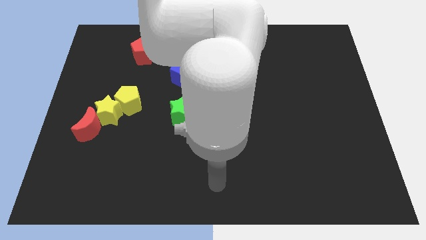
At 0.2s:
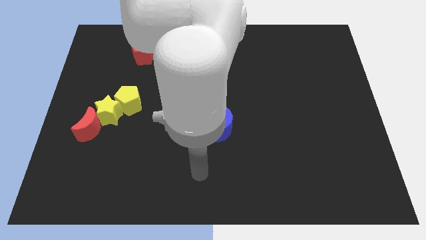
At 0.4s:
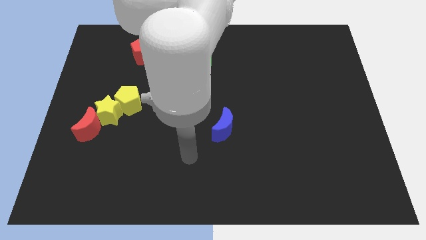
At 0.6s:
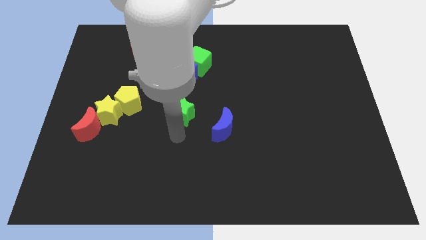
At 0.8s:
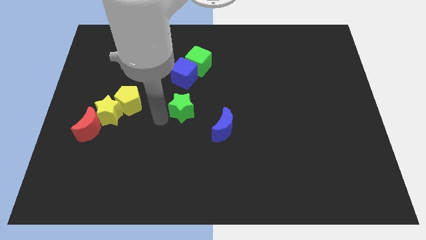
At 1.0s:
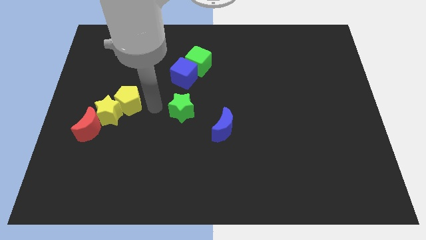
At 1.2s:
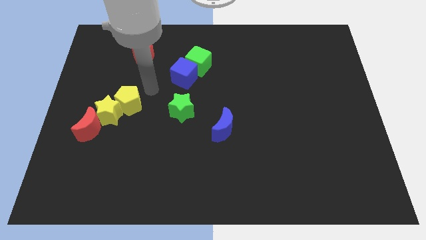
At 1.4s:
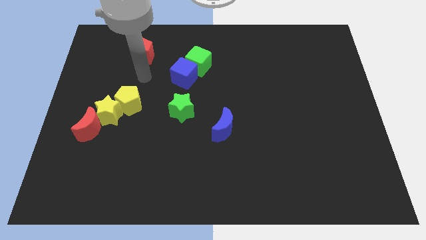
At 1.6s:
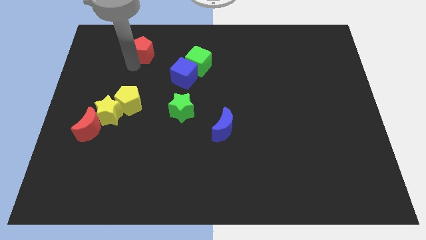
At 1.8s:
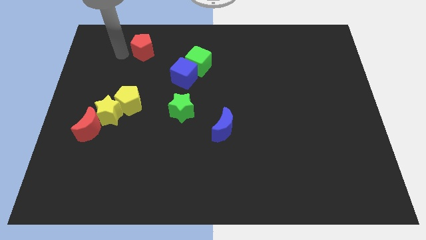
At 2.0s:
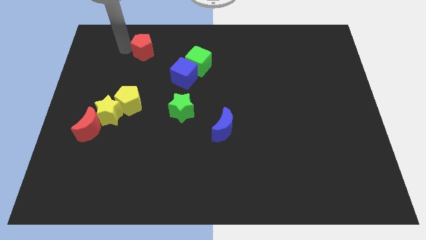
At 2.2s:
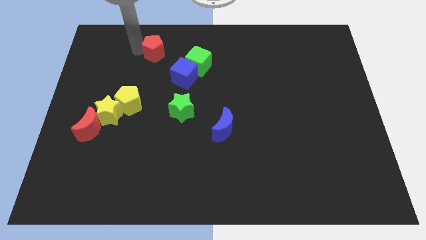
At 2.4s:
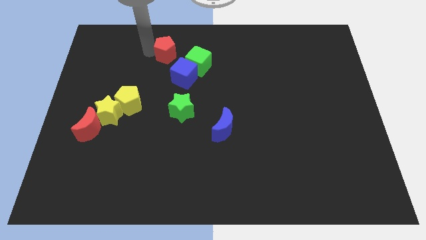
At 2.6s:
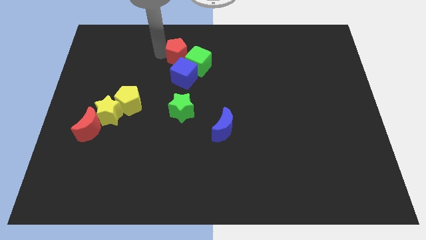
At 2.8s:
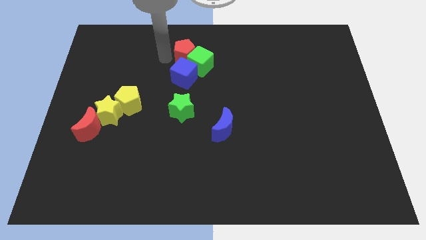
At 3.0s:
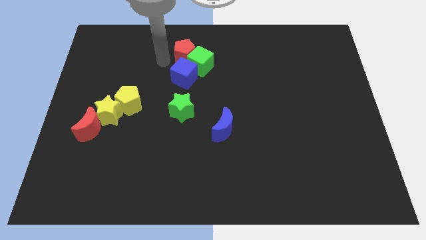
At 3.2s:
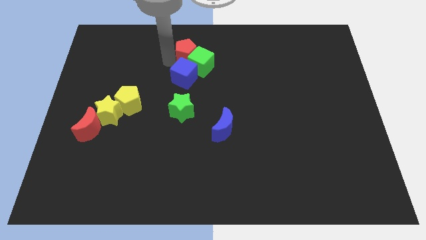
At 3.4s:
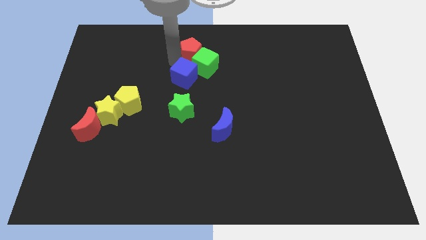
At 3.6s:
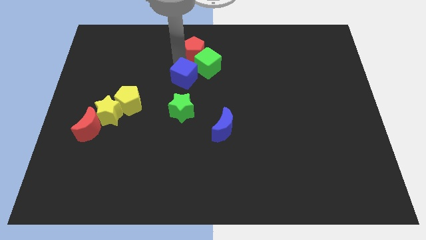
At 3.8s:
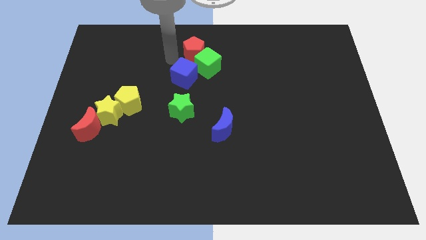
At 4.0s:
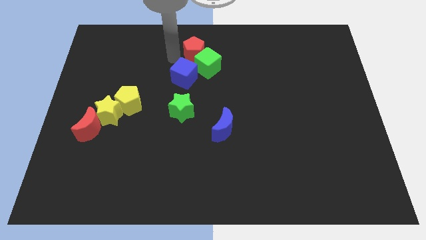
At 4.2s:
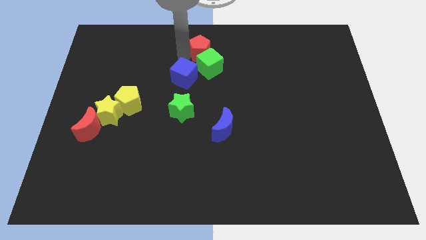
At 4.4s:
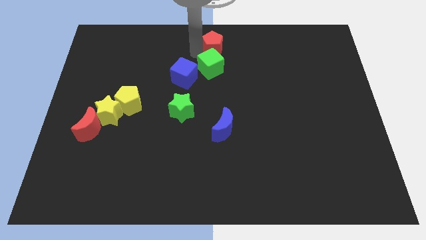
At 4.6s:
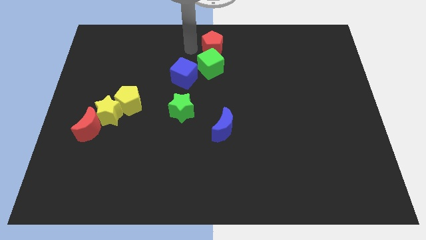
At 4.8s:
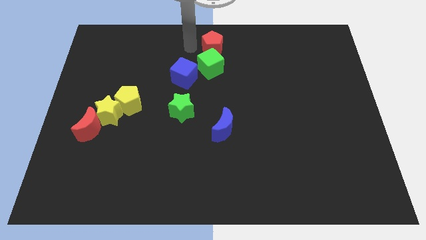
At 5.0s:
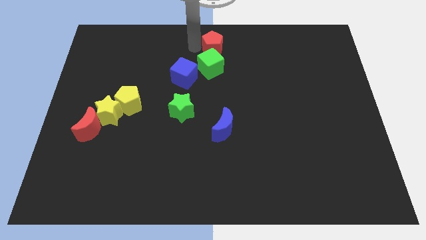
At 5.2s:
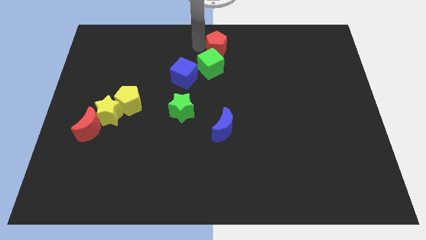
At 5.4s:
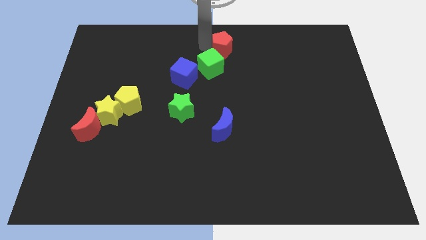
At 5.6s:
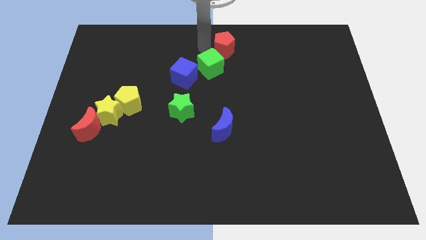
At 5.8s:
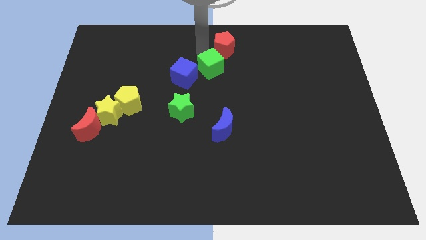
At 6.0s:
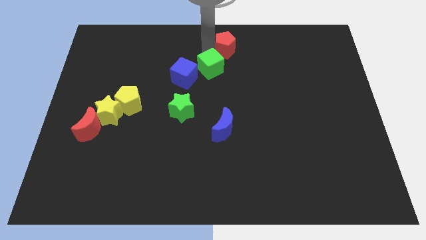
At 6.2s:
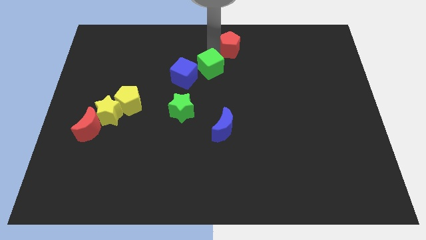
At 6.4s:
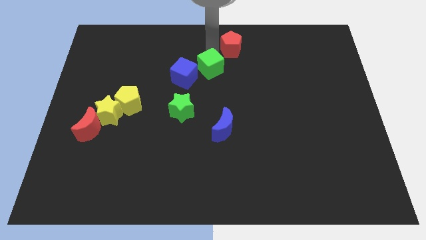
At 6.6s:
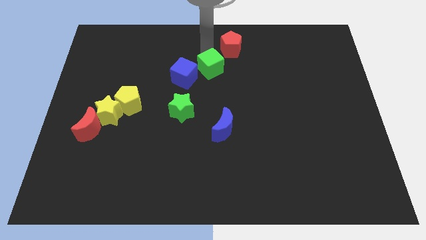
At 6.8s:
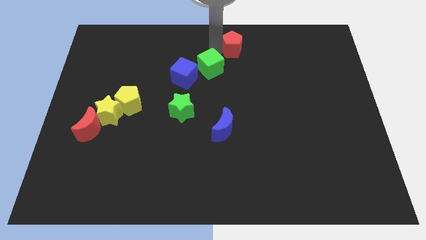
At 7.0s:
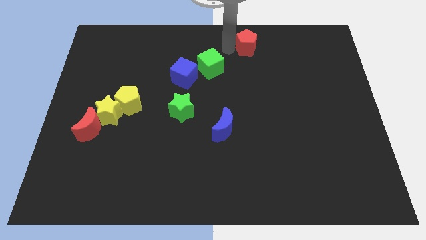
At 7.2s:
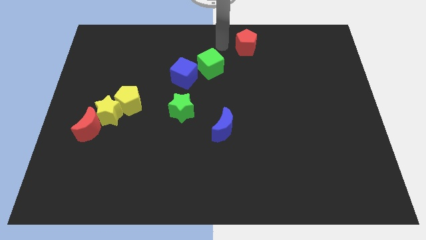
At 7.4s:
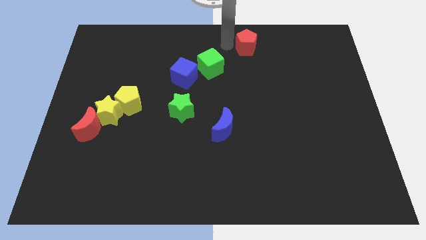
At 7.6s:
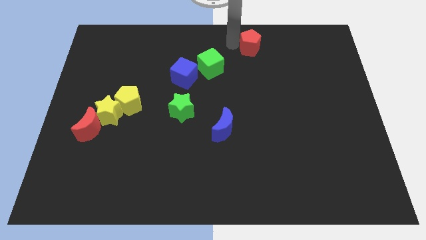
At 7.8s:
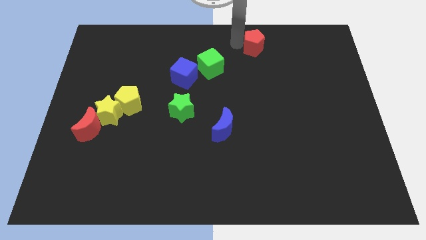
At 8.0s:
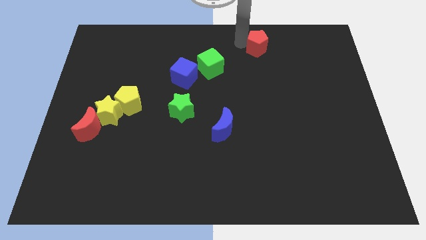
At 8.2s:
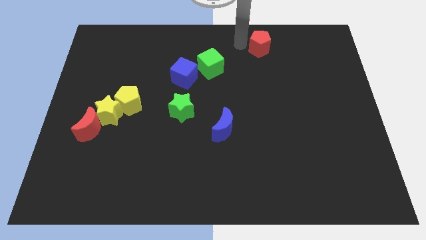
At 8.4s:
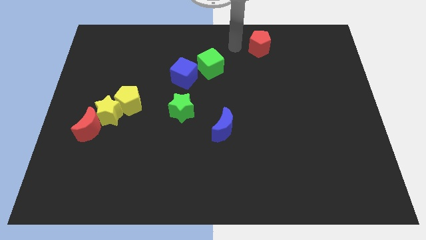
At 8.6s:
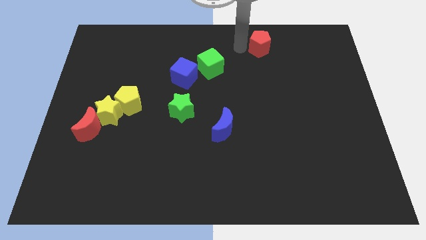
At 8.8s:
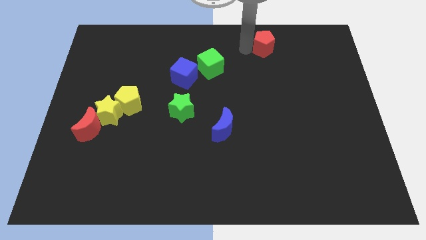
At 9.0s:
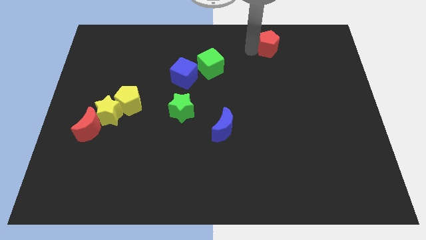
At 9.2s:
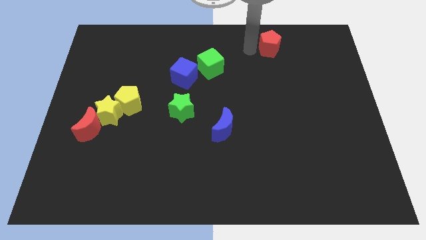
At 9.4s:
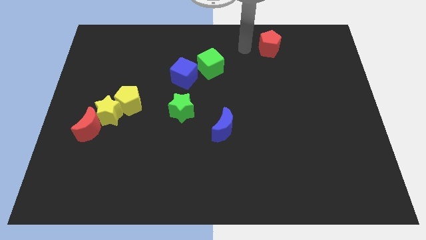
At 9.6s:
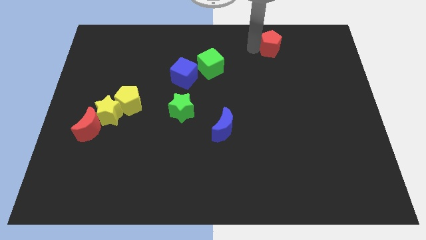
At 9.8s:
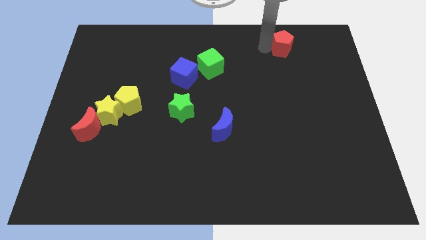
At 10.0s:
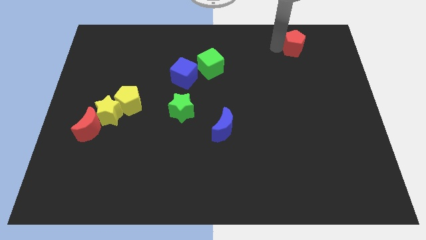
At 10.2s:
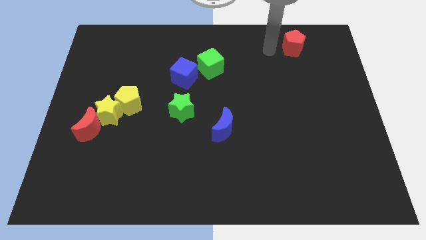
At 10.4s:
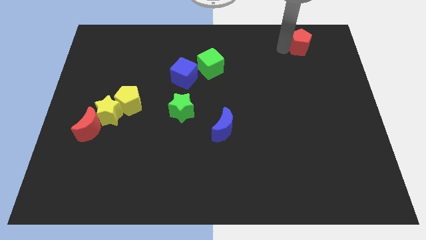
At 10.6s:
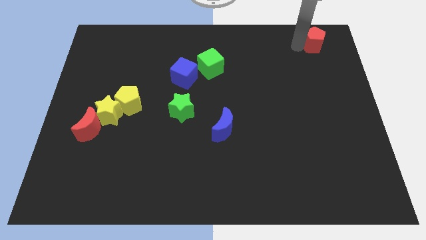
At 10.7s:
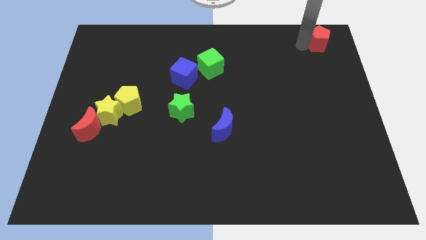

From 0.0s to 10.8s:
move the red pentagon to the top right corner

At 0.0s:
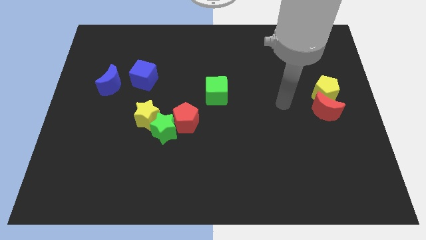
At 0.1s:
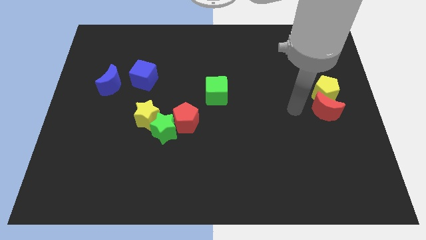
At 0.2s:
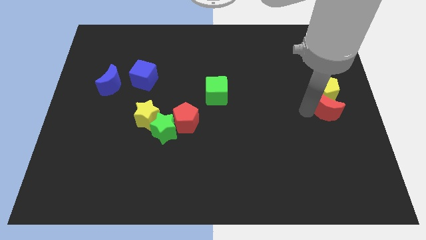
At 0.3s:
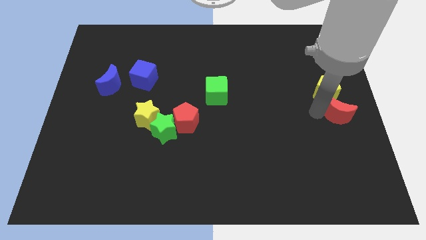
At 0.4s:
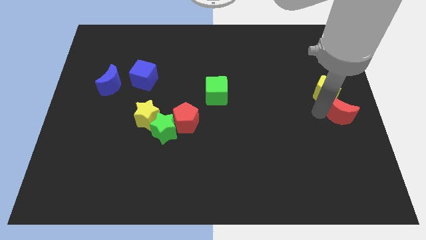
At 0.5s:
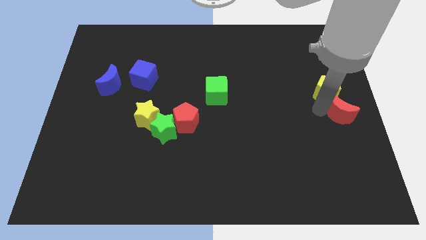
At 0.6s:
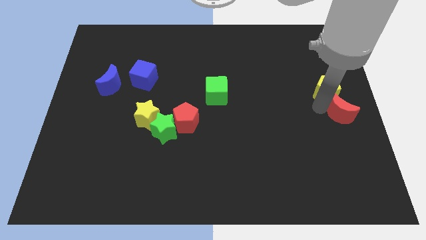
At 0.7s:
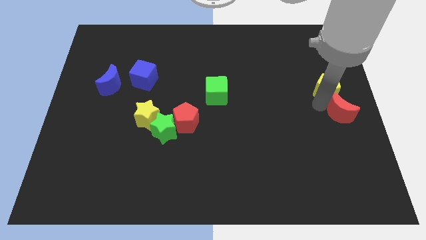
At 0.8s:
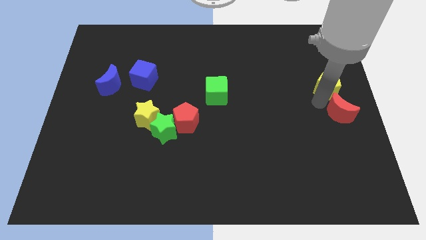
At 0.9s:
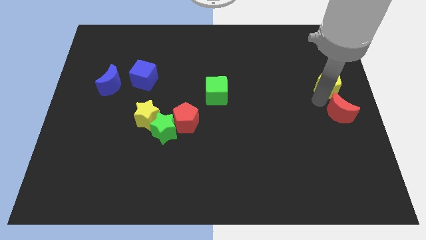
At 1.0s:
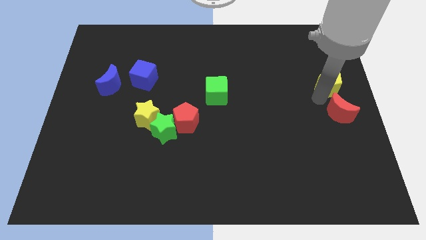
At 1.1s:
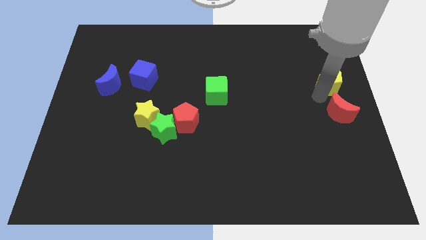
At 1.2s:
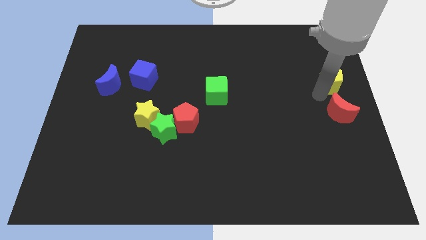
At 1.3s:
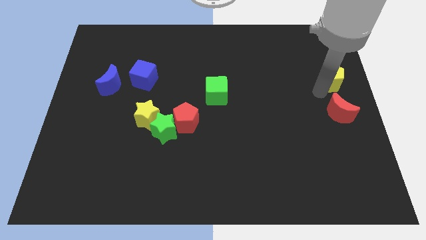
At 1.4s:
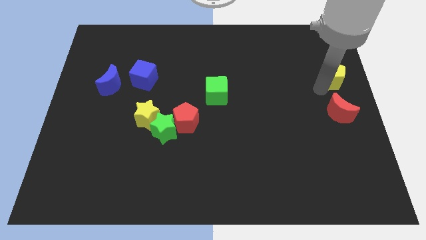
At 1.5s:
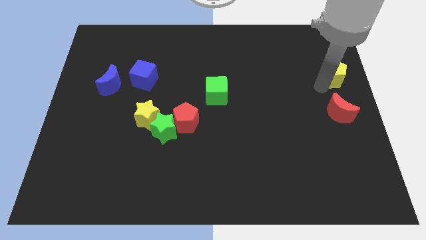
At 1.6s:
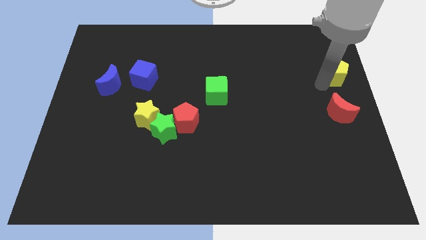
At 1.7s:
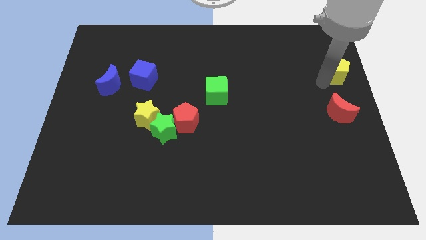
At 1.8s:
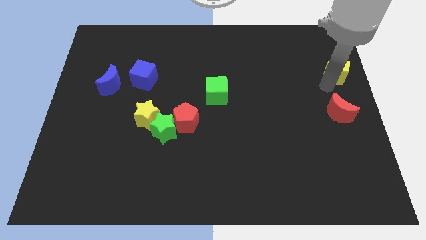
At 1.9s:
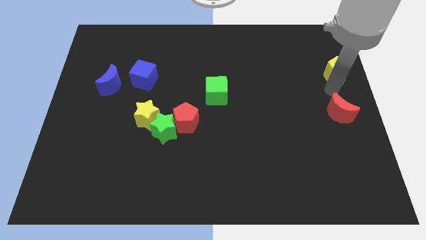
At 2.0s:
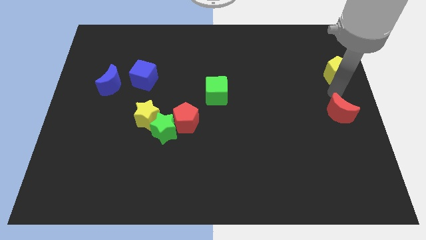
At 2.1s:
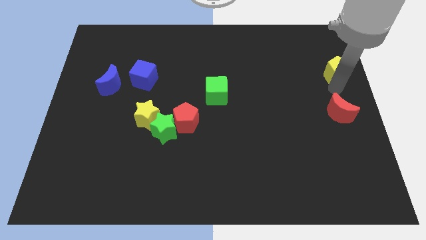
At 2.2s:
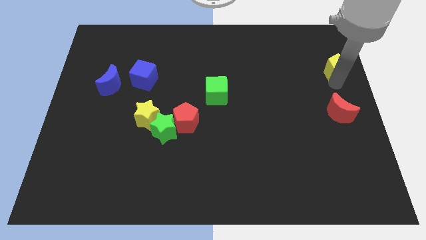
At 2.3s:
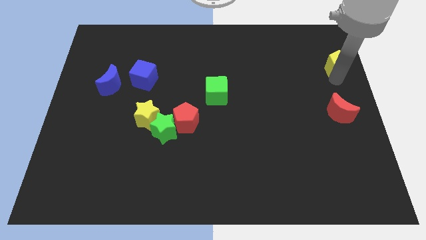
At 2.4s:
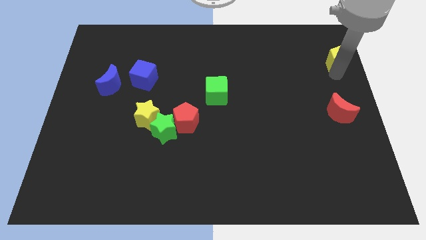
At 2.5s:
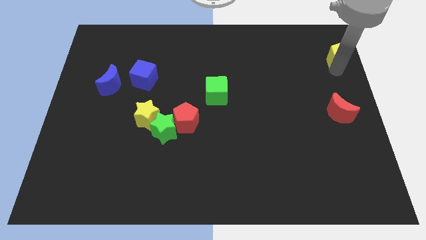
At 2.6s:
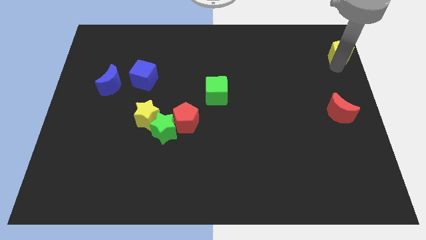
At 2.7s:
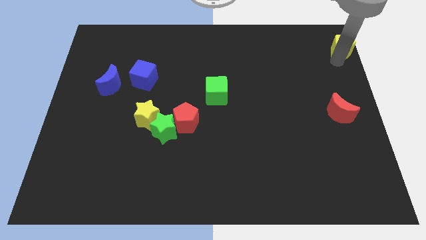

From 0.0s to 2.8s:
move the yellow pentagon to the top right
